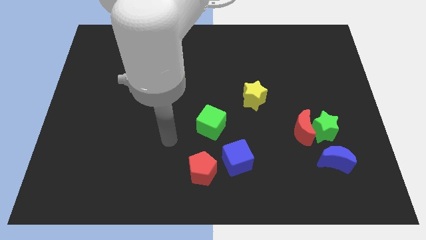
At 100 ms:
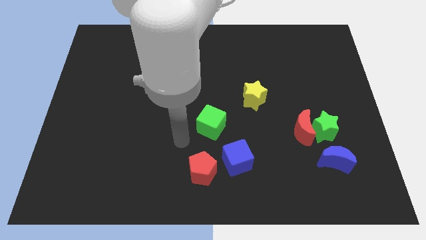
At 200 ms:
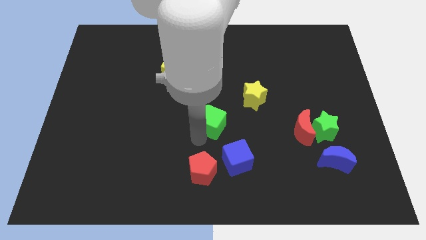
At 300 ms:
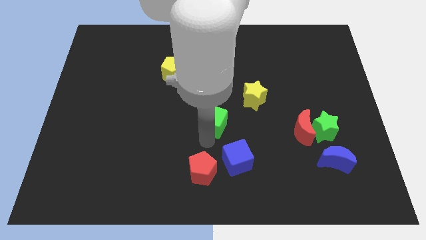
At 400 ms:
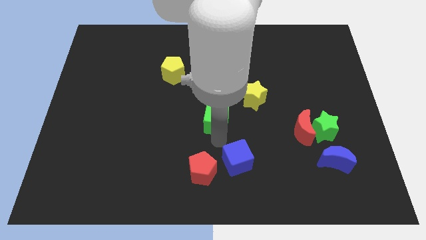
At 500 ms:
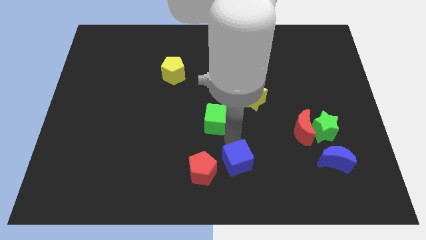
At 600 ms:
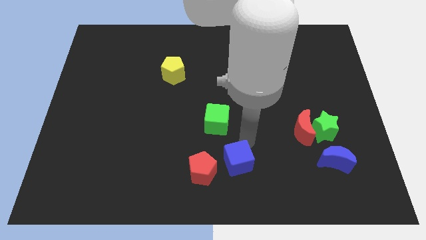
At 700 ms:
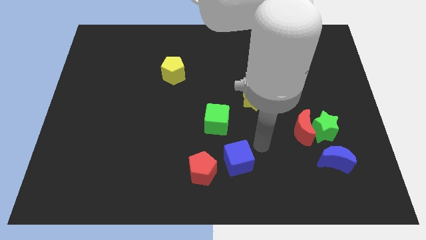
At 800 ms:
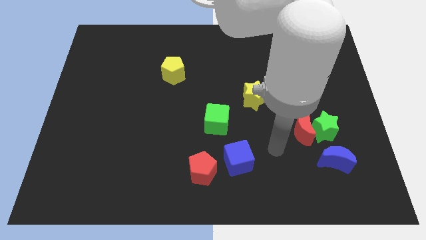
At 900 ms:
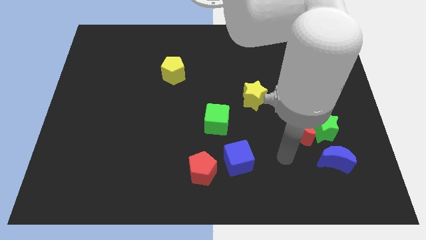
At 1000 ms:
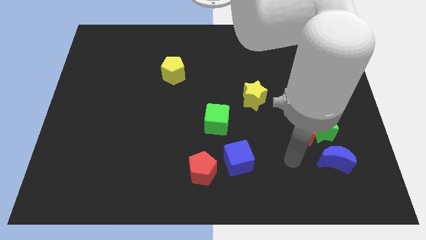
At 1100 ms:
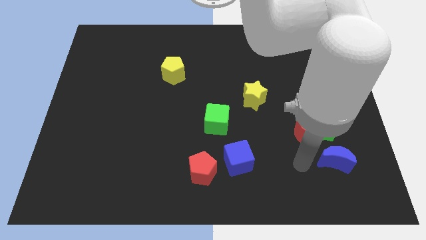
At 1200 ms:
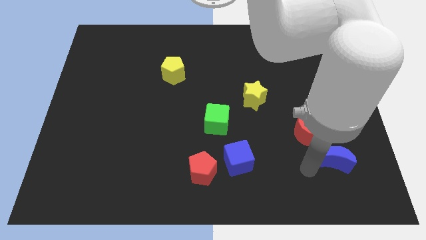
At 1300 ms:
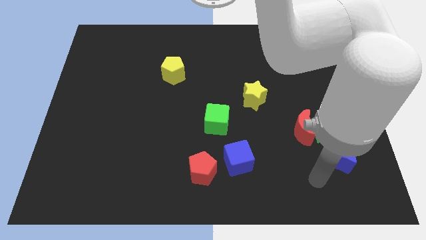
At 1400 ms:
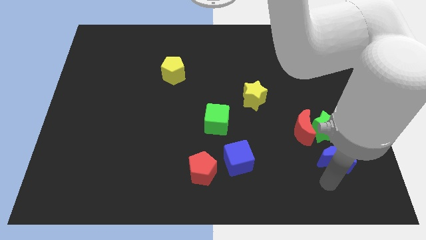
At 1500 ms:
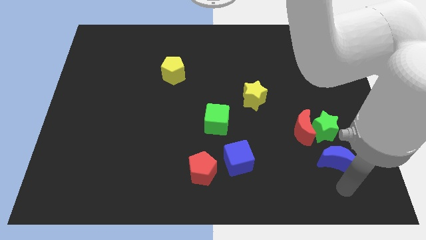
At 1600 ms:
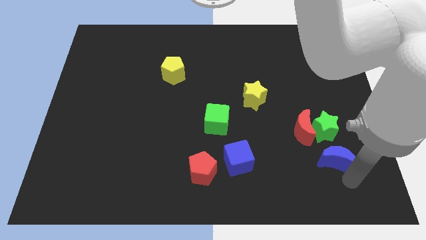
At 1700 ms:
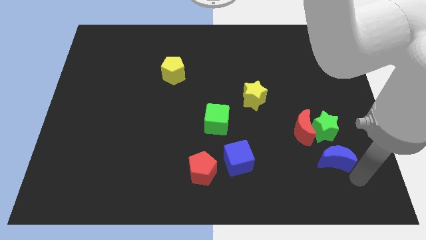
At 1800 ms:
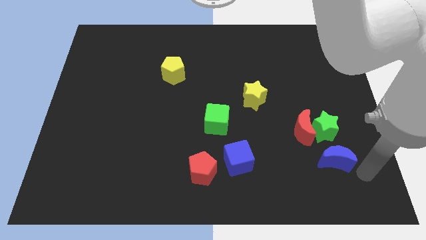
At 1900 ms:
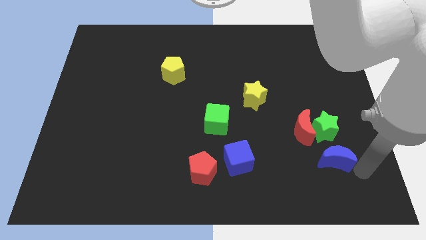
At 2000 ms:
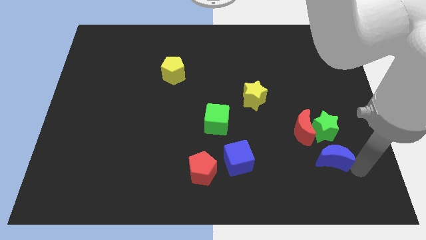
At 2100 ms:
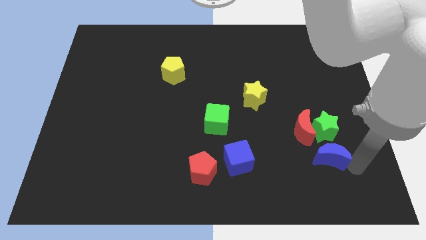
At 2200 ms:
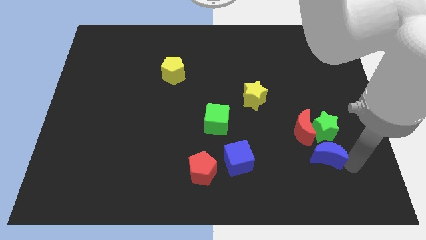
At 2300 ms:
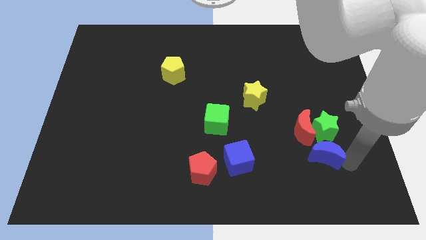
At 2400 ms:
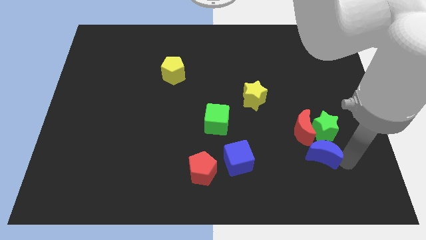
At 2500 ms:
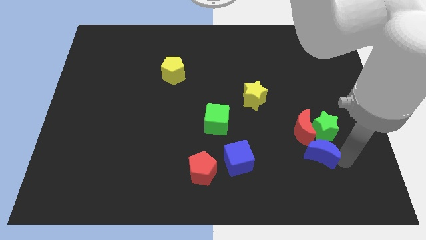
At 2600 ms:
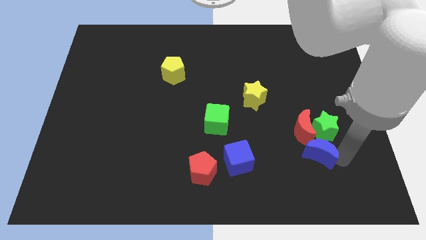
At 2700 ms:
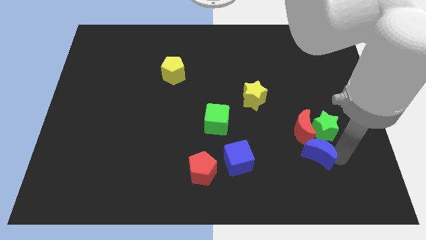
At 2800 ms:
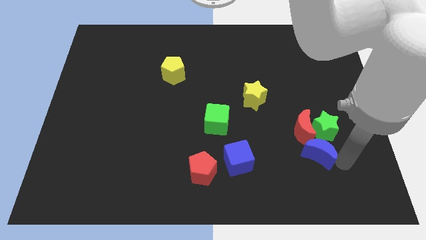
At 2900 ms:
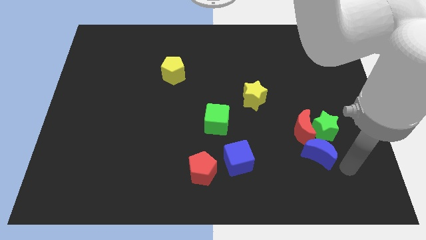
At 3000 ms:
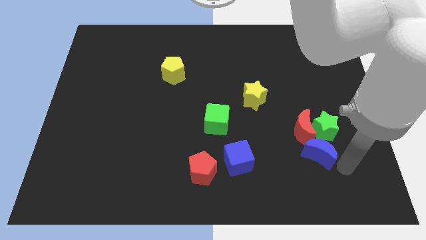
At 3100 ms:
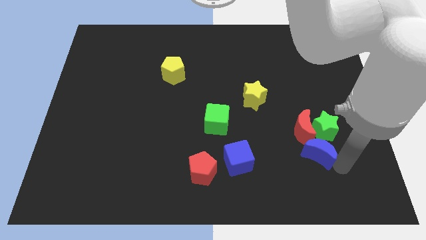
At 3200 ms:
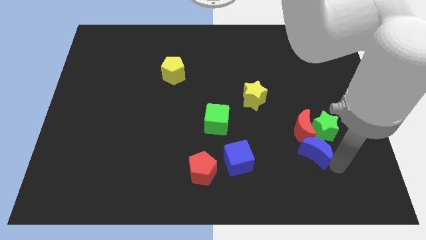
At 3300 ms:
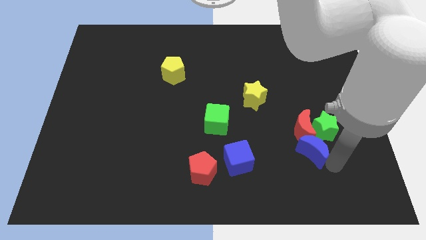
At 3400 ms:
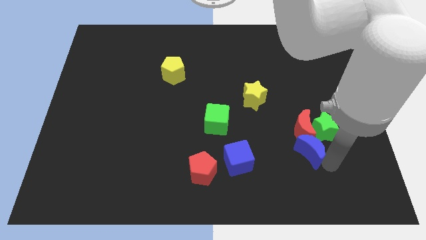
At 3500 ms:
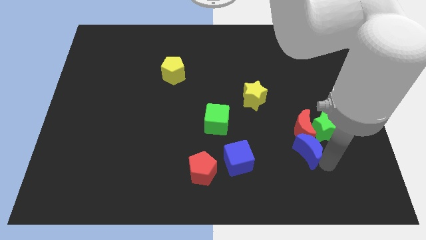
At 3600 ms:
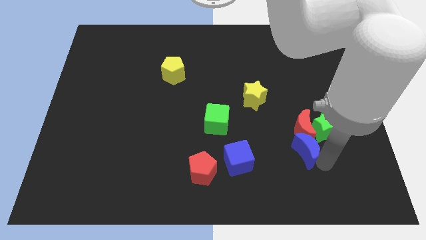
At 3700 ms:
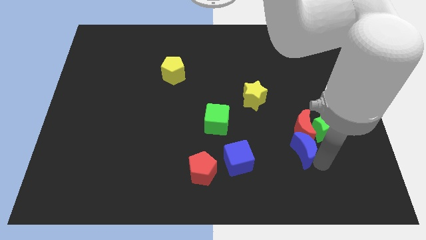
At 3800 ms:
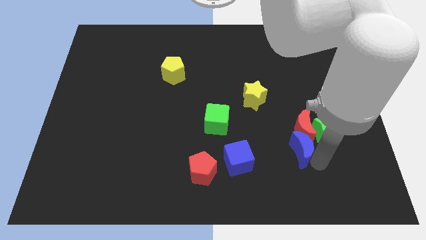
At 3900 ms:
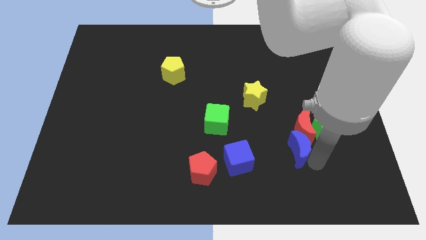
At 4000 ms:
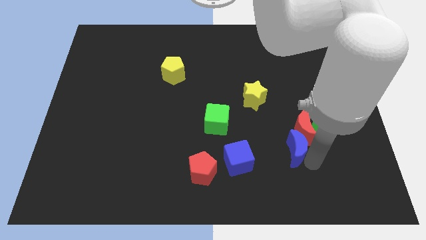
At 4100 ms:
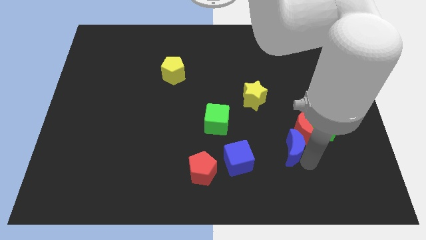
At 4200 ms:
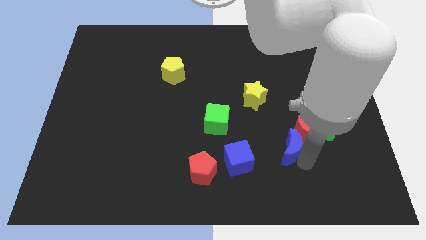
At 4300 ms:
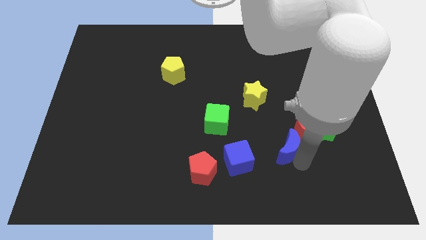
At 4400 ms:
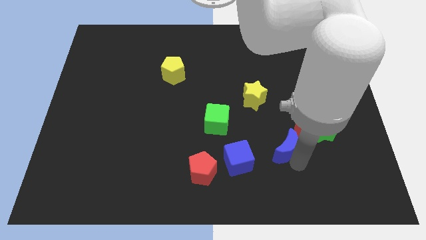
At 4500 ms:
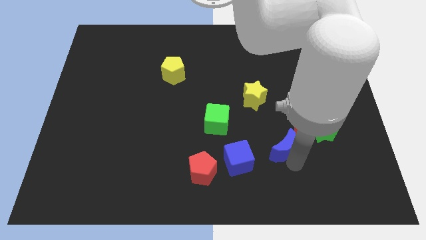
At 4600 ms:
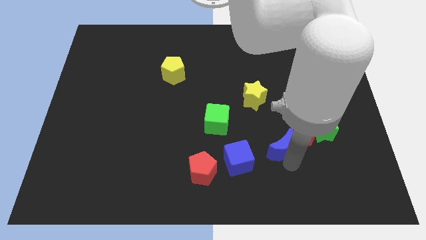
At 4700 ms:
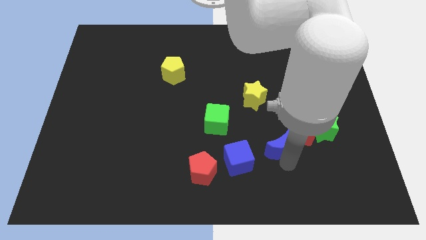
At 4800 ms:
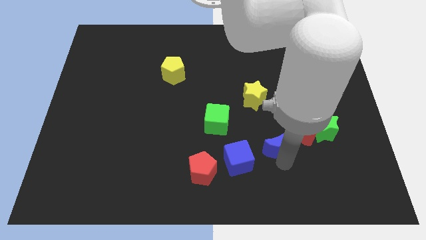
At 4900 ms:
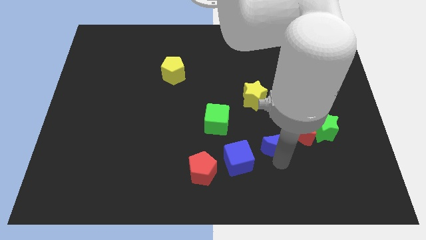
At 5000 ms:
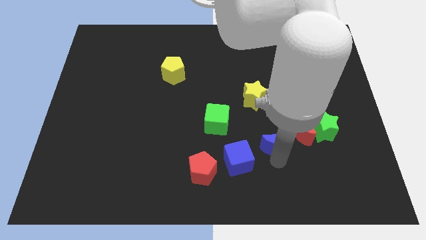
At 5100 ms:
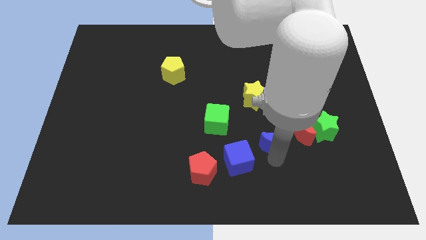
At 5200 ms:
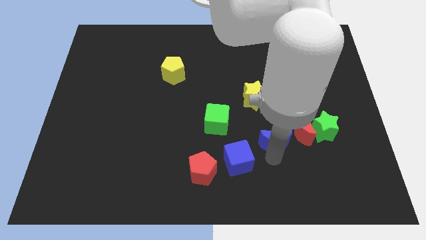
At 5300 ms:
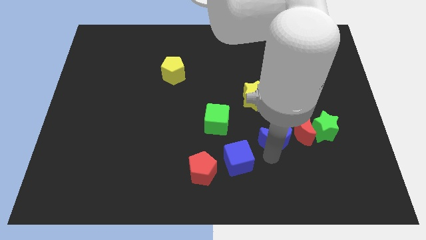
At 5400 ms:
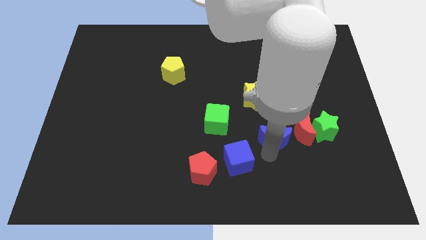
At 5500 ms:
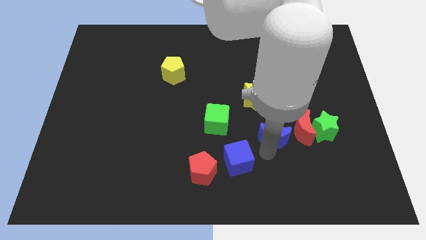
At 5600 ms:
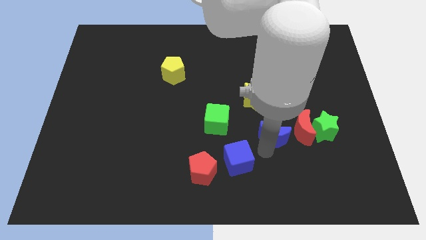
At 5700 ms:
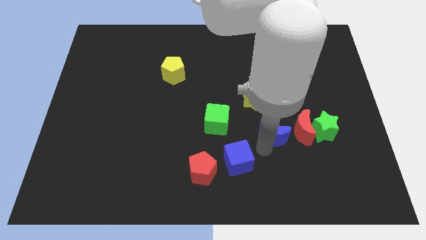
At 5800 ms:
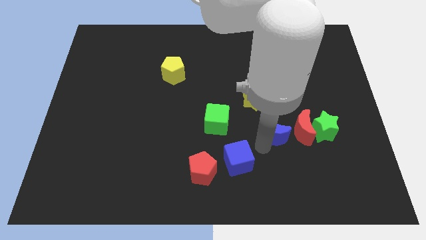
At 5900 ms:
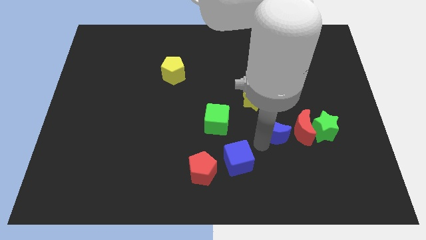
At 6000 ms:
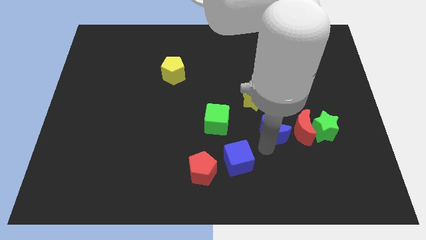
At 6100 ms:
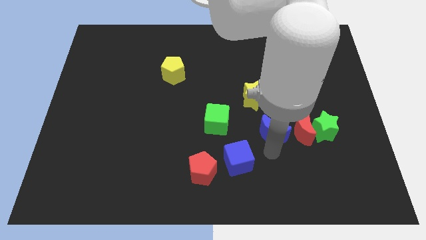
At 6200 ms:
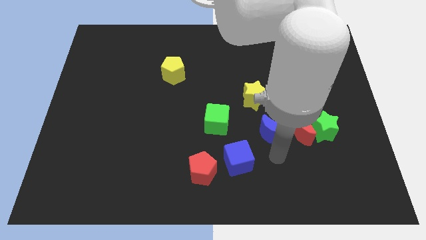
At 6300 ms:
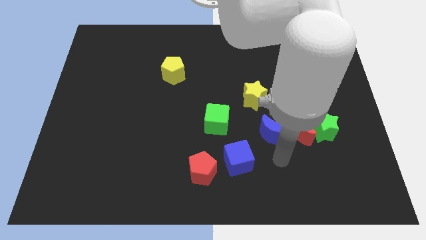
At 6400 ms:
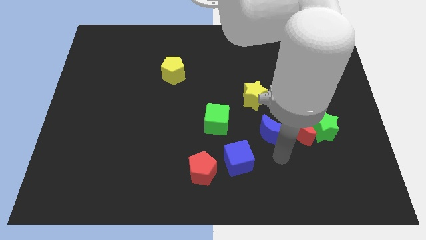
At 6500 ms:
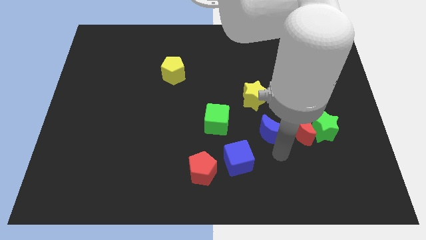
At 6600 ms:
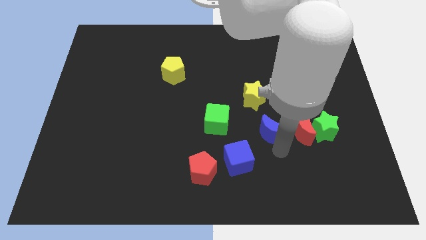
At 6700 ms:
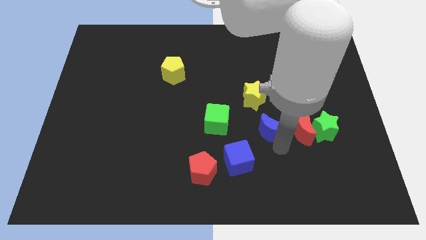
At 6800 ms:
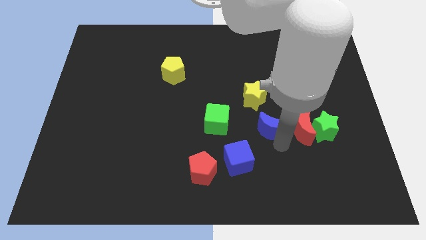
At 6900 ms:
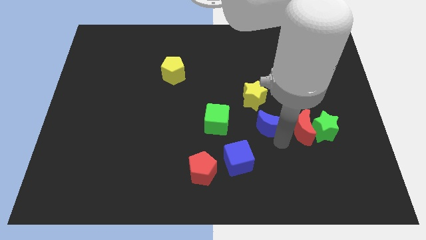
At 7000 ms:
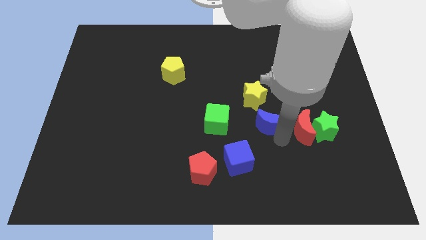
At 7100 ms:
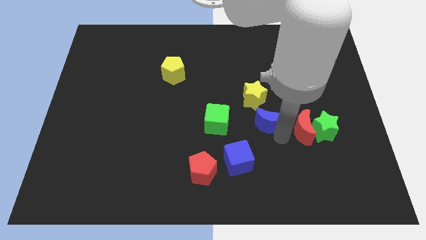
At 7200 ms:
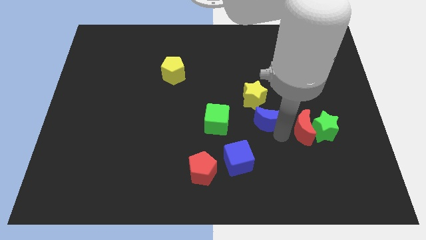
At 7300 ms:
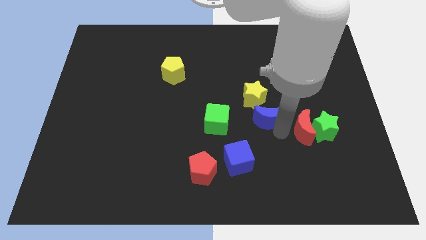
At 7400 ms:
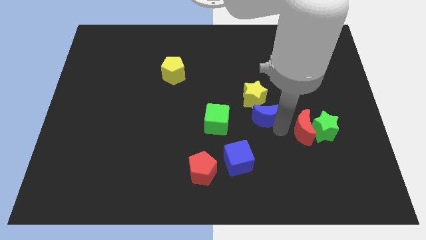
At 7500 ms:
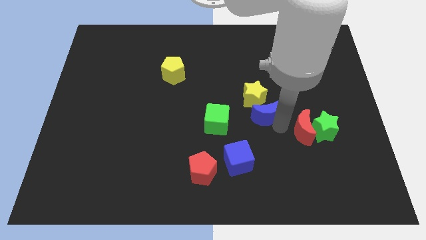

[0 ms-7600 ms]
slide the blue moon to the yellow star
